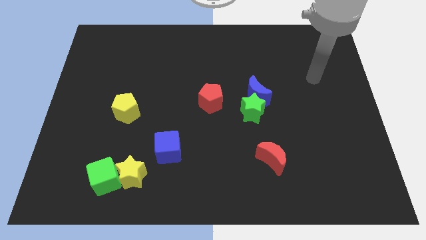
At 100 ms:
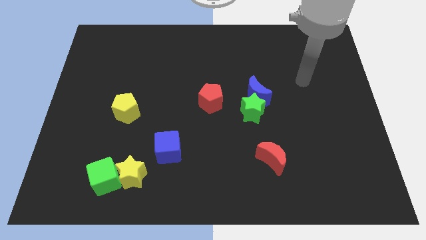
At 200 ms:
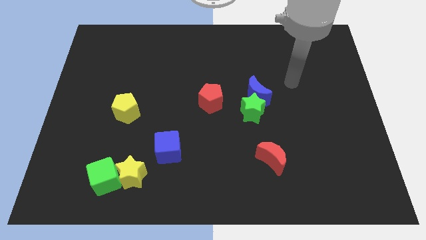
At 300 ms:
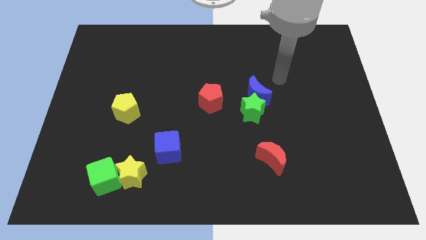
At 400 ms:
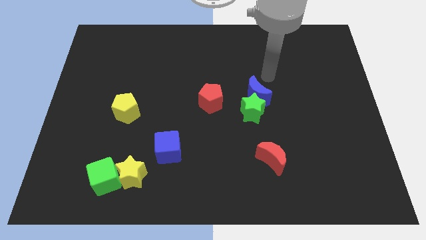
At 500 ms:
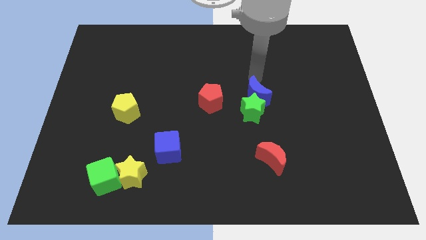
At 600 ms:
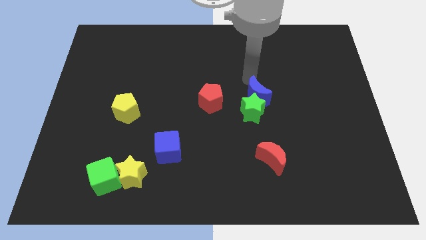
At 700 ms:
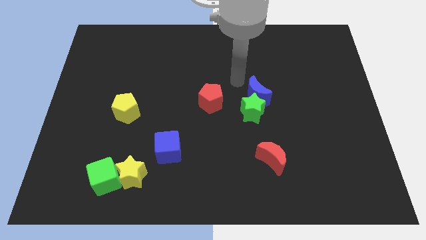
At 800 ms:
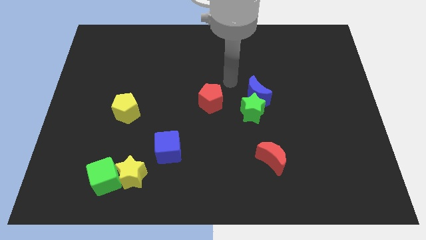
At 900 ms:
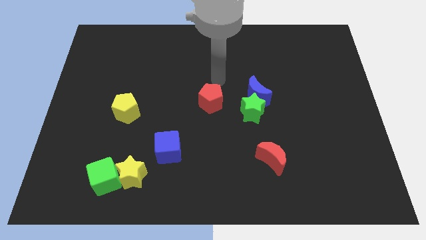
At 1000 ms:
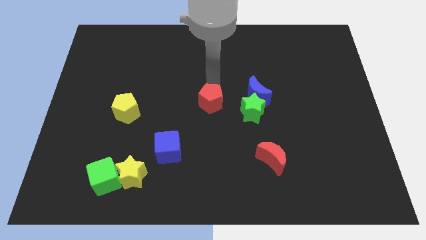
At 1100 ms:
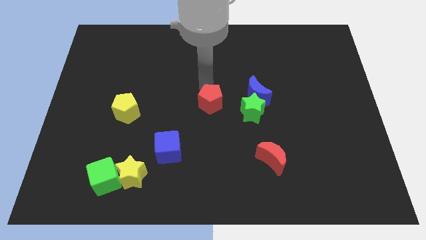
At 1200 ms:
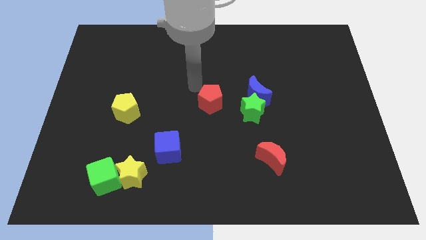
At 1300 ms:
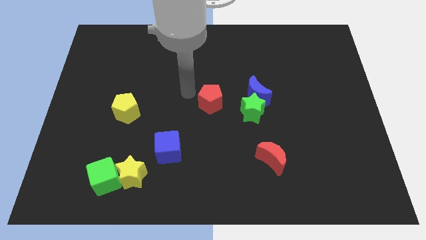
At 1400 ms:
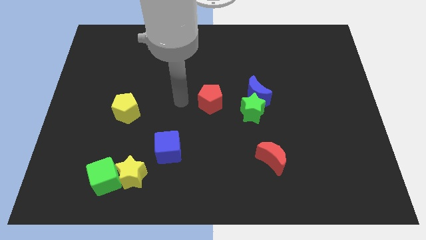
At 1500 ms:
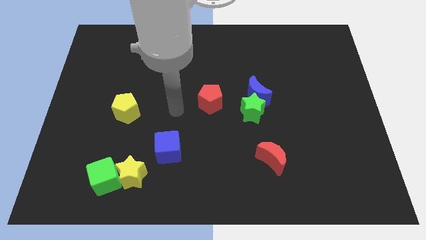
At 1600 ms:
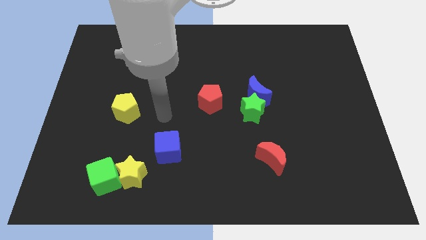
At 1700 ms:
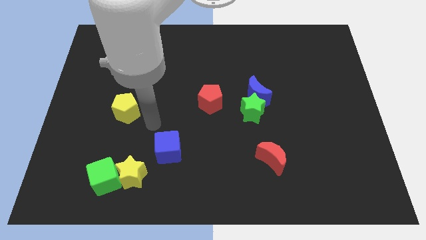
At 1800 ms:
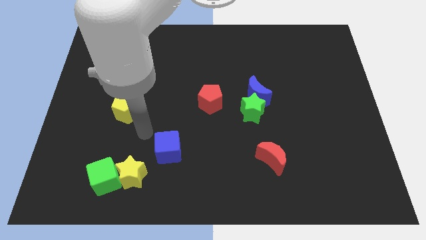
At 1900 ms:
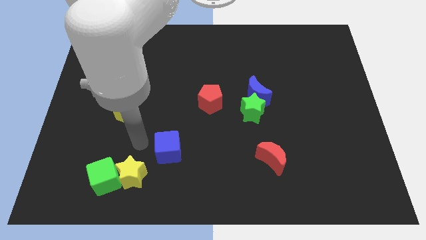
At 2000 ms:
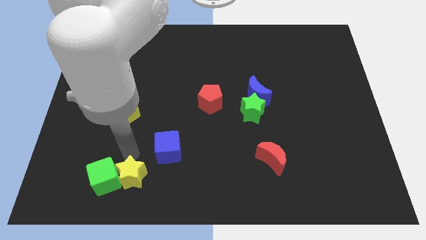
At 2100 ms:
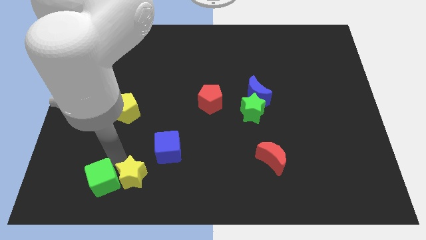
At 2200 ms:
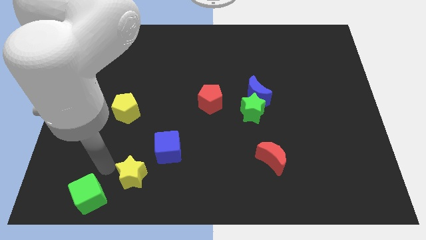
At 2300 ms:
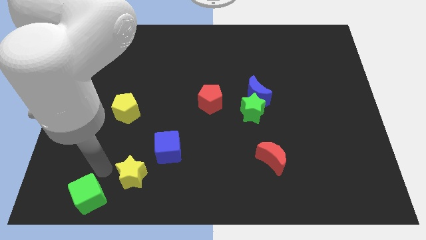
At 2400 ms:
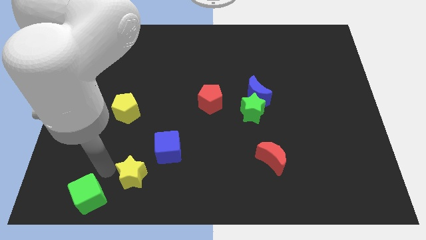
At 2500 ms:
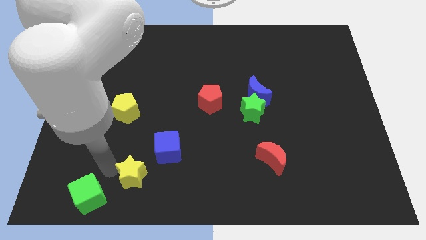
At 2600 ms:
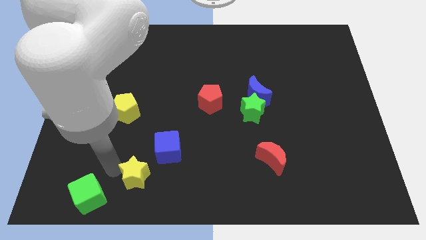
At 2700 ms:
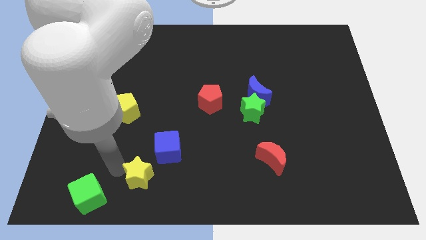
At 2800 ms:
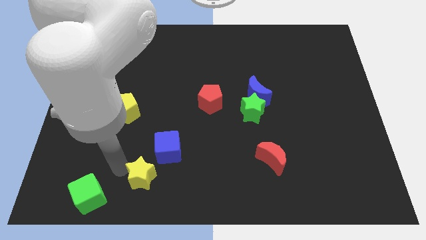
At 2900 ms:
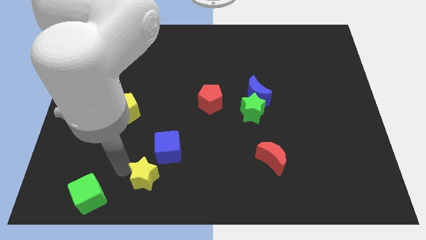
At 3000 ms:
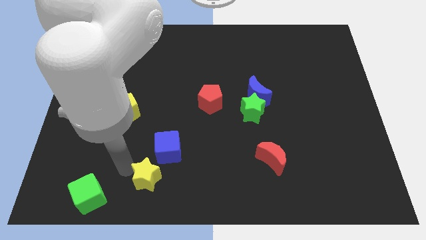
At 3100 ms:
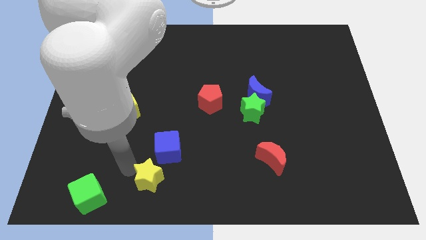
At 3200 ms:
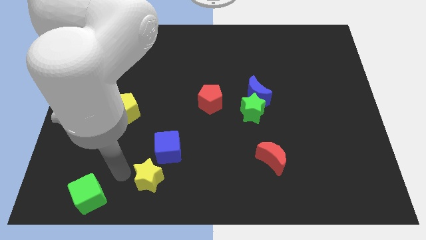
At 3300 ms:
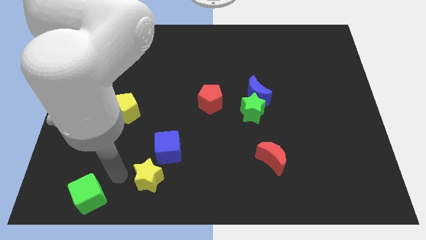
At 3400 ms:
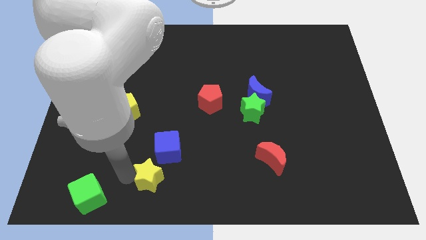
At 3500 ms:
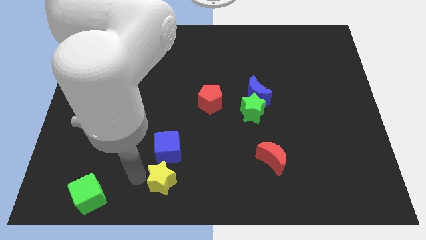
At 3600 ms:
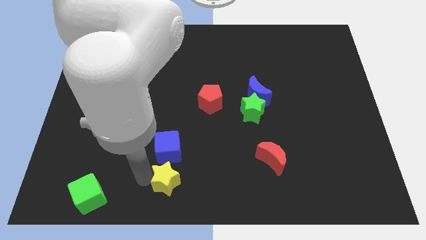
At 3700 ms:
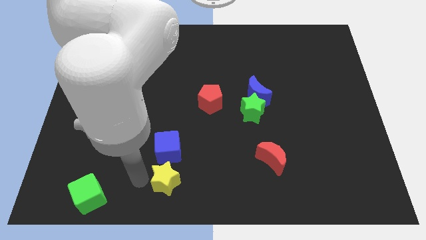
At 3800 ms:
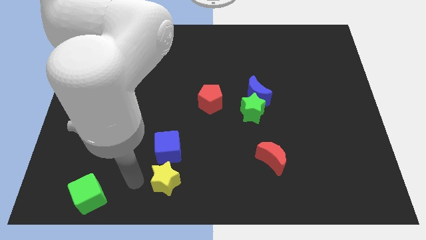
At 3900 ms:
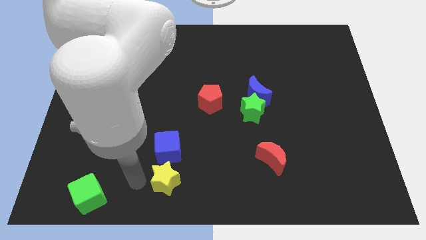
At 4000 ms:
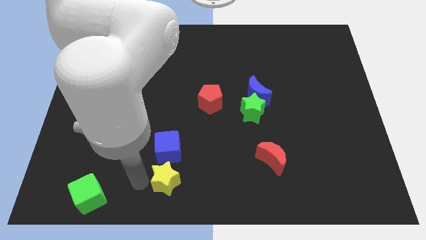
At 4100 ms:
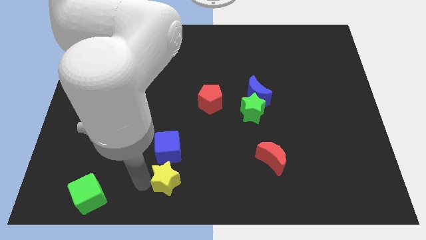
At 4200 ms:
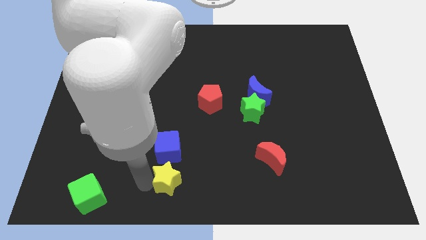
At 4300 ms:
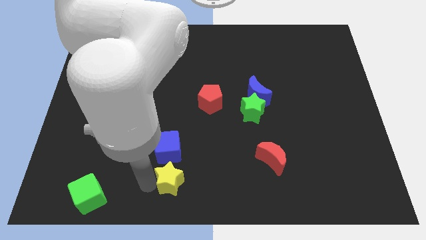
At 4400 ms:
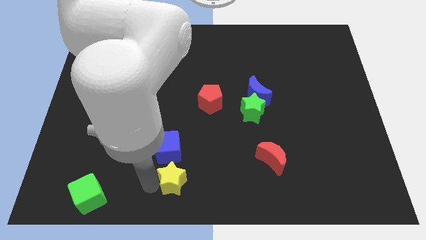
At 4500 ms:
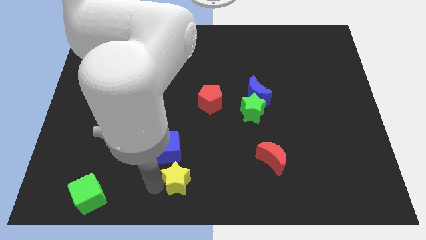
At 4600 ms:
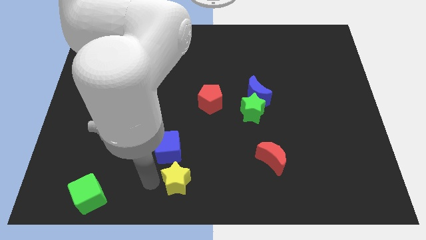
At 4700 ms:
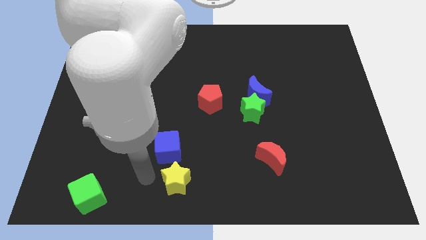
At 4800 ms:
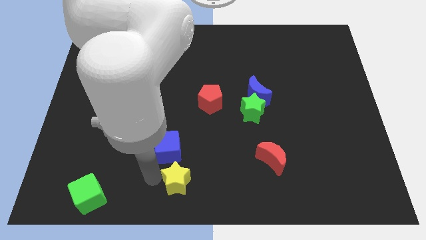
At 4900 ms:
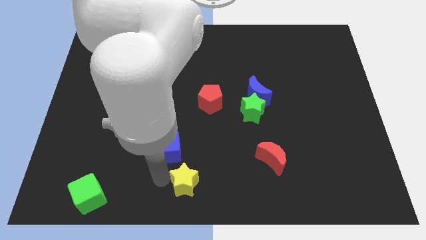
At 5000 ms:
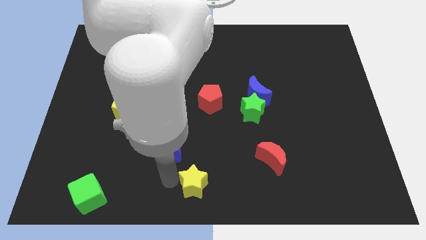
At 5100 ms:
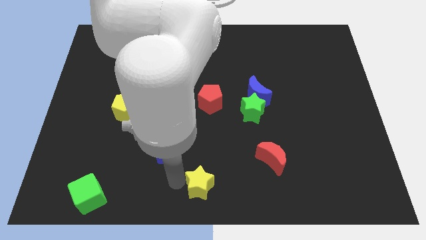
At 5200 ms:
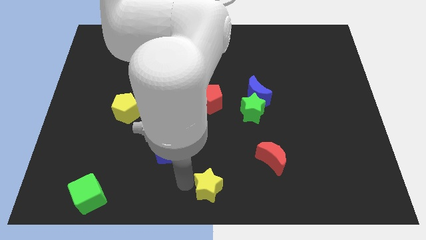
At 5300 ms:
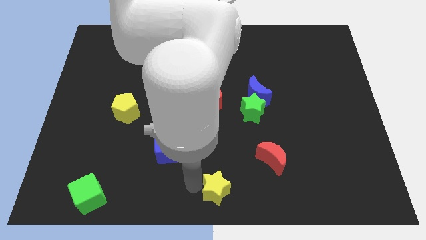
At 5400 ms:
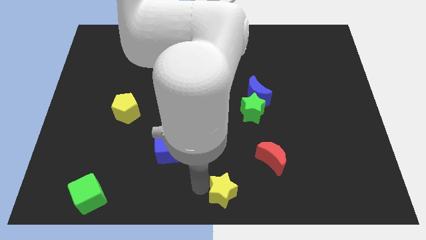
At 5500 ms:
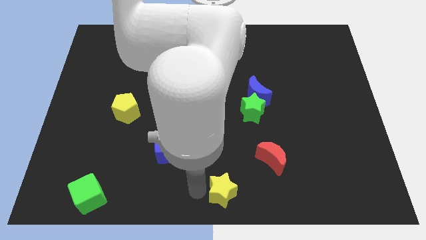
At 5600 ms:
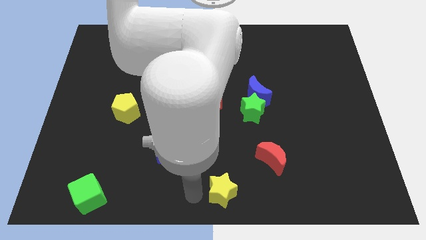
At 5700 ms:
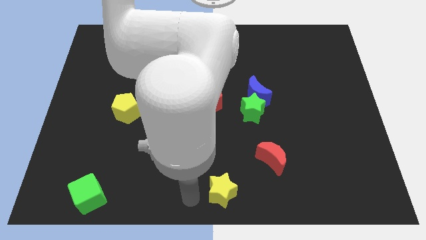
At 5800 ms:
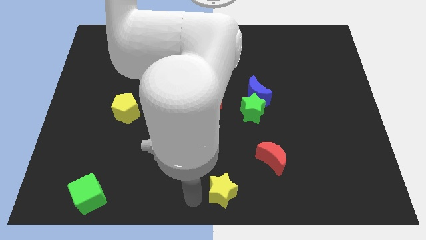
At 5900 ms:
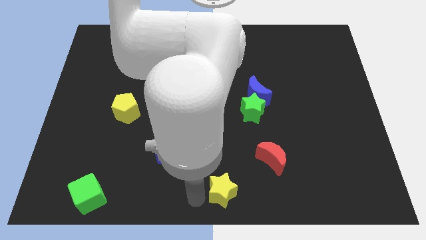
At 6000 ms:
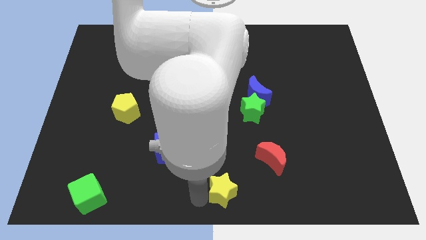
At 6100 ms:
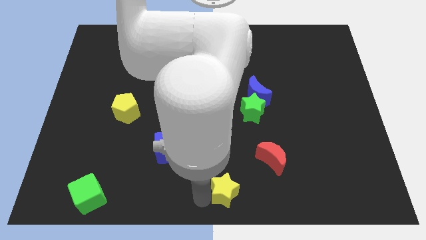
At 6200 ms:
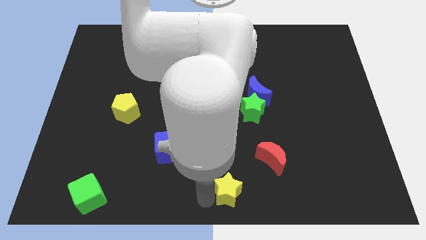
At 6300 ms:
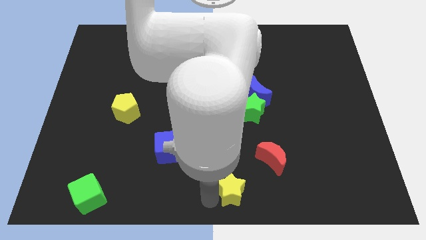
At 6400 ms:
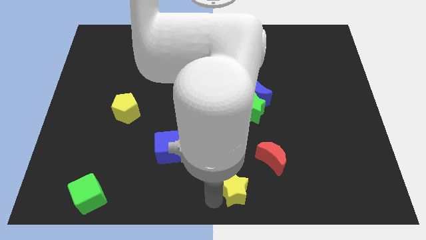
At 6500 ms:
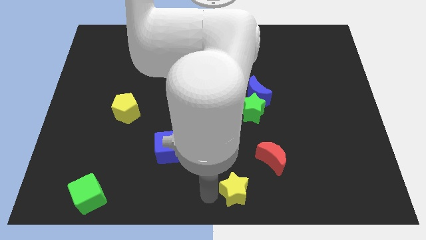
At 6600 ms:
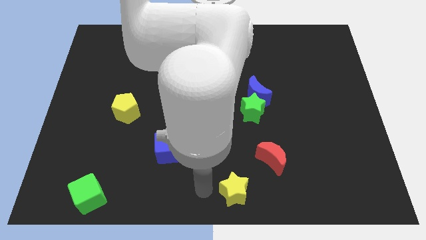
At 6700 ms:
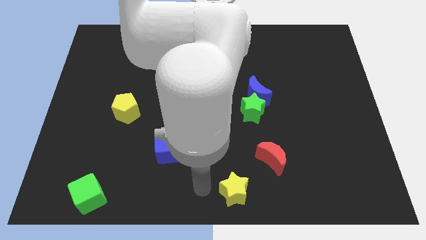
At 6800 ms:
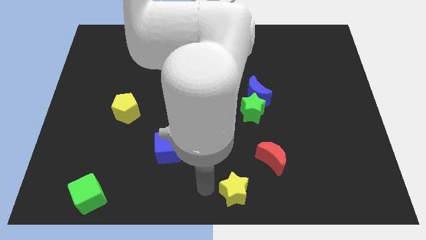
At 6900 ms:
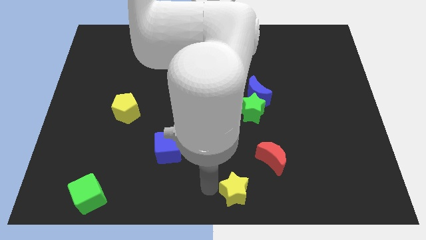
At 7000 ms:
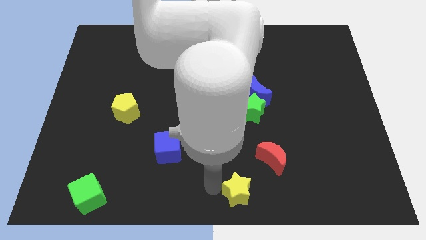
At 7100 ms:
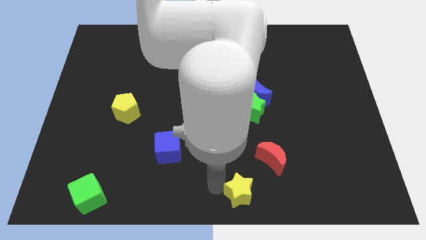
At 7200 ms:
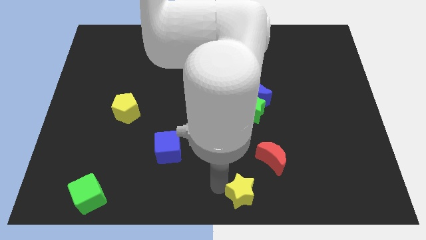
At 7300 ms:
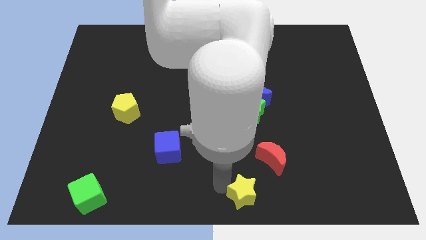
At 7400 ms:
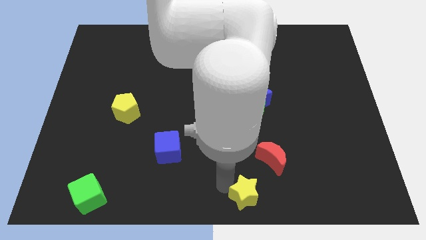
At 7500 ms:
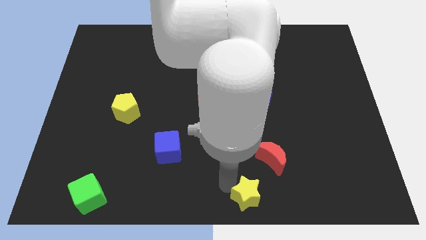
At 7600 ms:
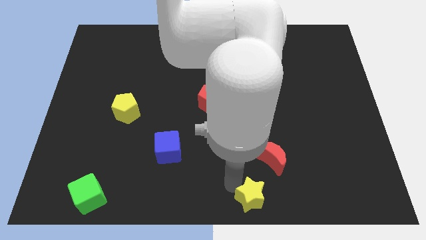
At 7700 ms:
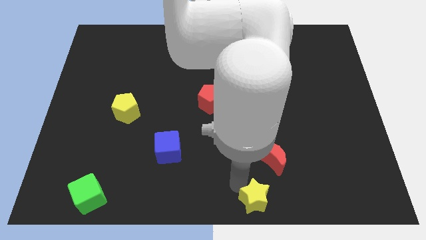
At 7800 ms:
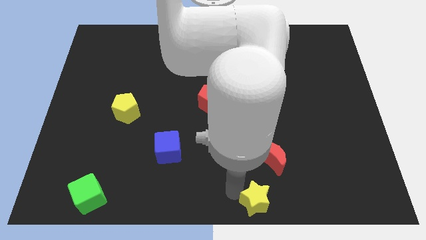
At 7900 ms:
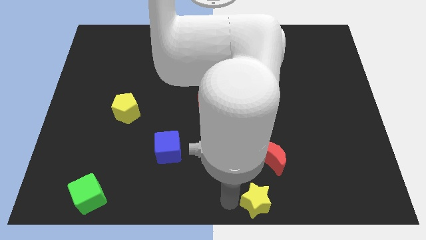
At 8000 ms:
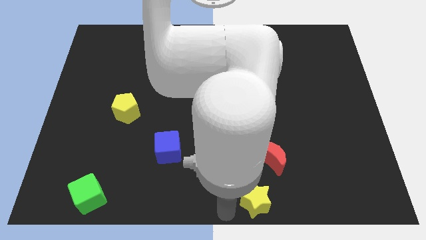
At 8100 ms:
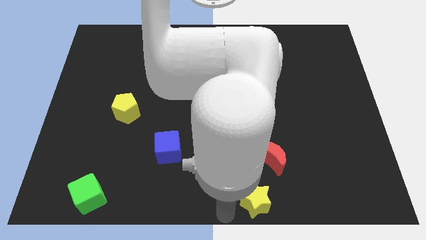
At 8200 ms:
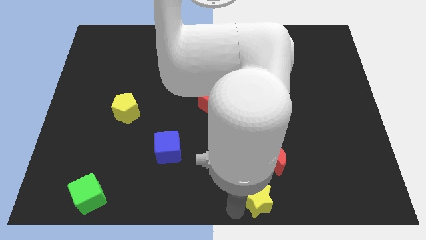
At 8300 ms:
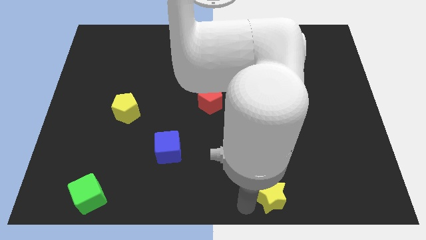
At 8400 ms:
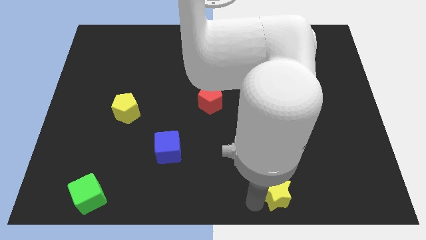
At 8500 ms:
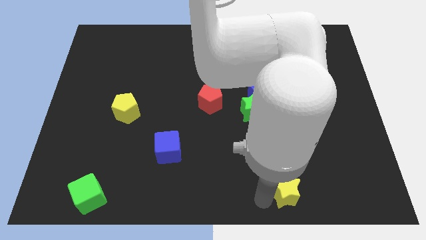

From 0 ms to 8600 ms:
put the yellow star diagonally down and to the right of the red moon
